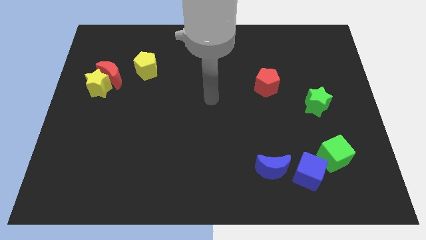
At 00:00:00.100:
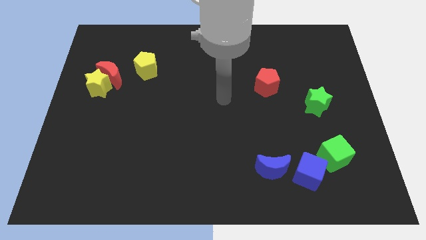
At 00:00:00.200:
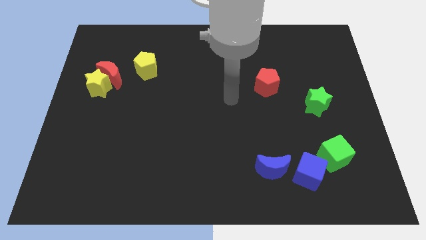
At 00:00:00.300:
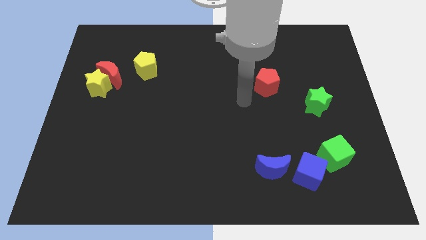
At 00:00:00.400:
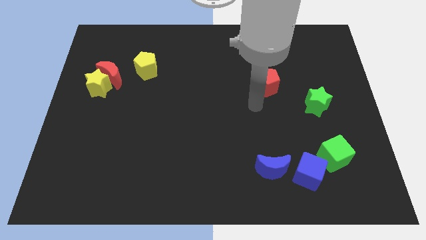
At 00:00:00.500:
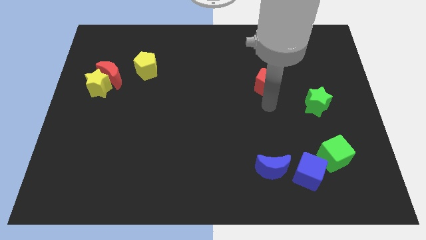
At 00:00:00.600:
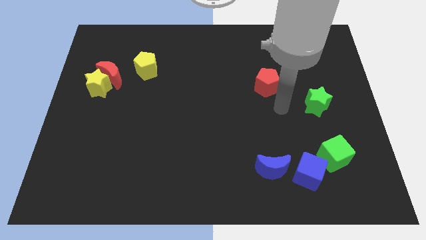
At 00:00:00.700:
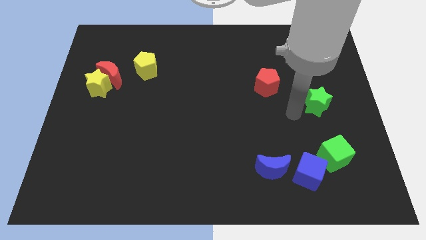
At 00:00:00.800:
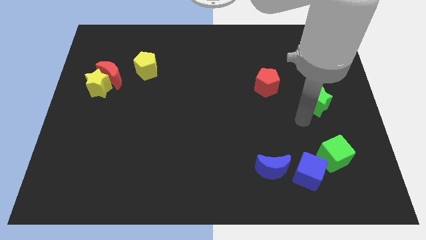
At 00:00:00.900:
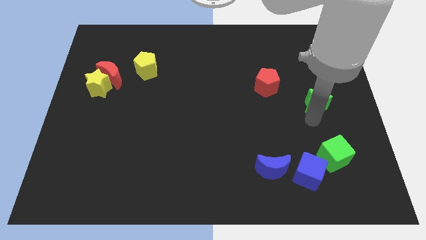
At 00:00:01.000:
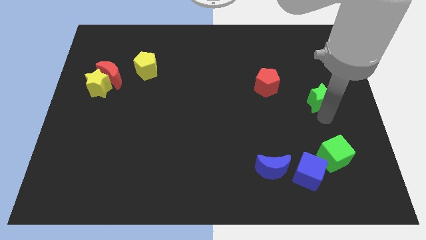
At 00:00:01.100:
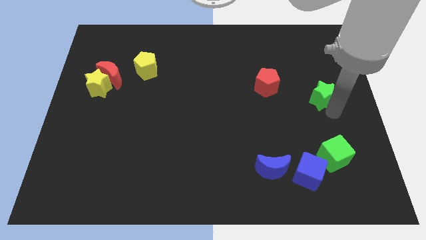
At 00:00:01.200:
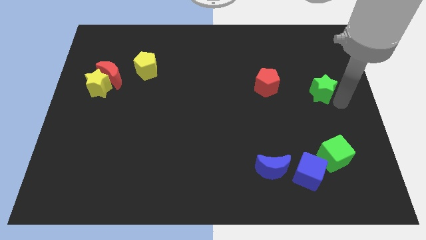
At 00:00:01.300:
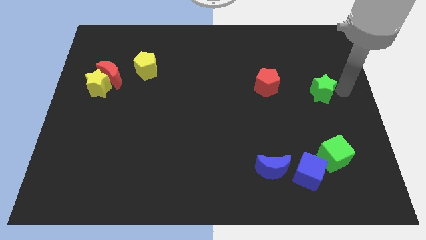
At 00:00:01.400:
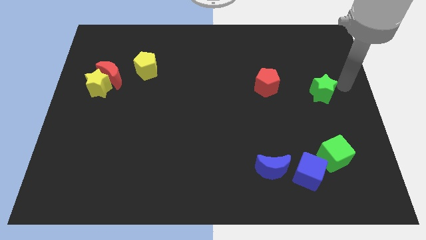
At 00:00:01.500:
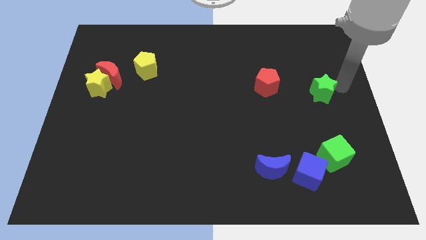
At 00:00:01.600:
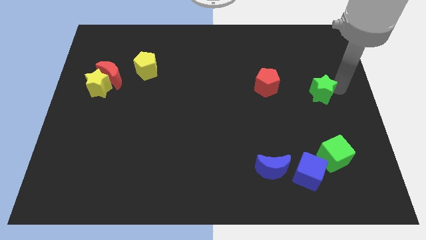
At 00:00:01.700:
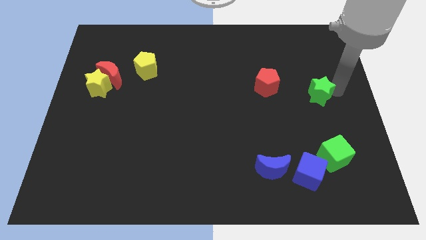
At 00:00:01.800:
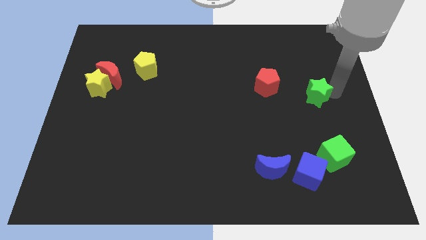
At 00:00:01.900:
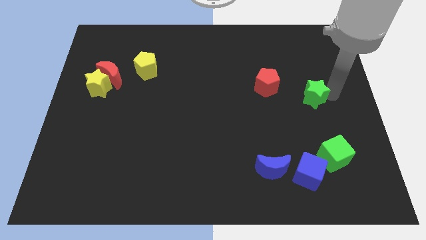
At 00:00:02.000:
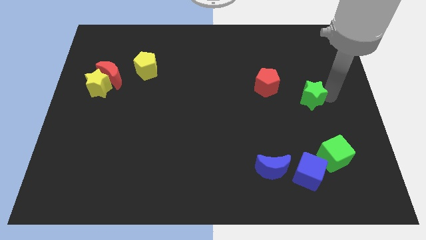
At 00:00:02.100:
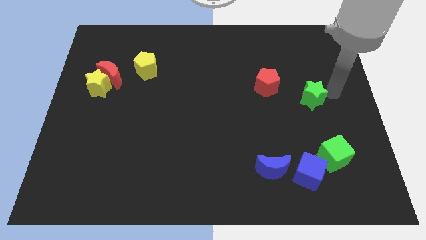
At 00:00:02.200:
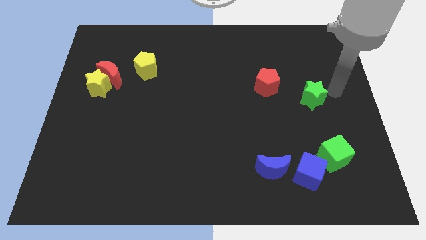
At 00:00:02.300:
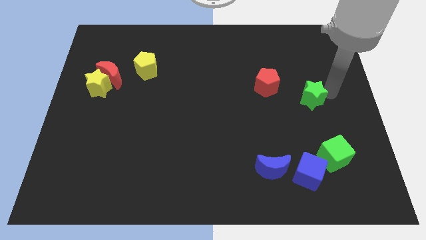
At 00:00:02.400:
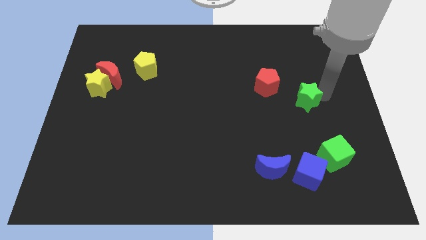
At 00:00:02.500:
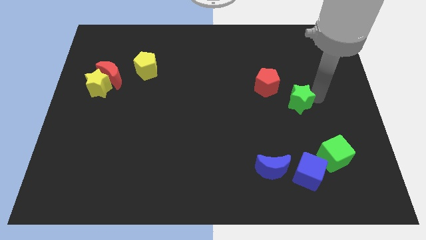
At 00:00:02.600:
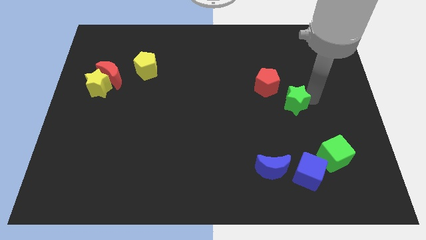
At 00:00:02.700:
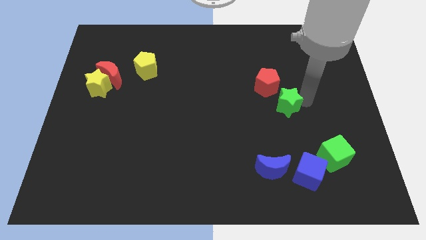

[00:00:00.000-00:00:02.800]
slightly slide the green star to the left

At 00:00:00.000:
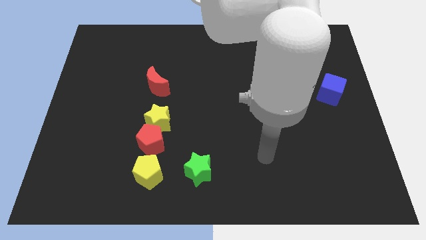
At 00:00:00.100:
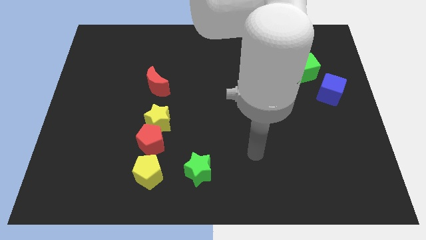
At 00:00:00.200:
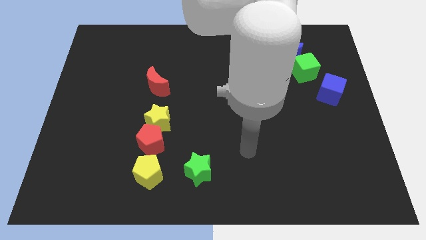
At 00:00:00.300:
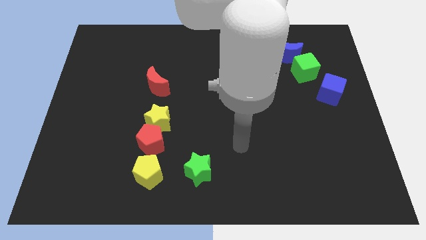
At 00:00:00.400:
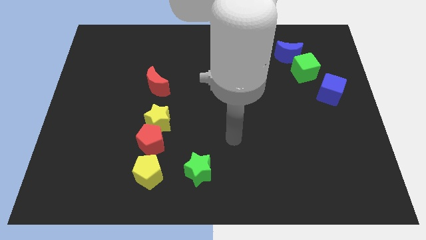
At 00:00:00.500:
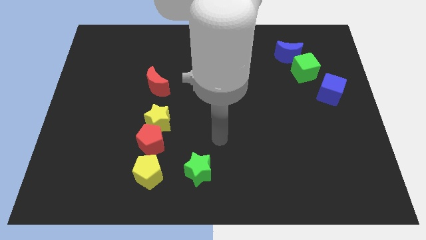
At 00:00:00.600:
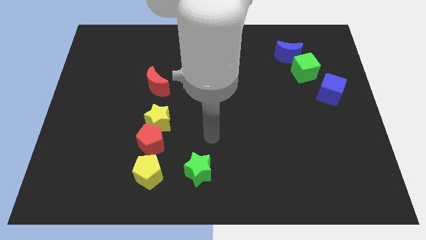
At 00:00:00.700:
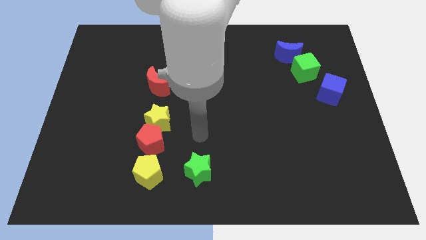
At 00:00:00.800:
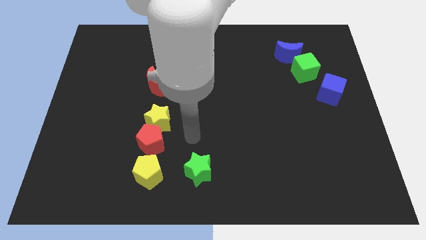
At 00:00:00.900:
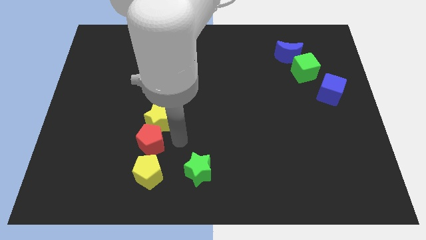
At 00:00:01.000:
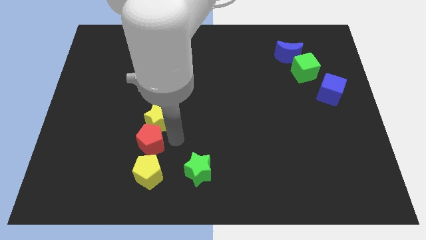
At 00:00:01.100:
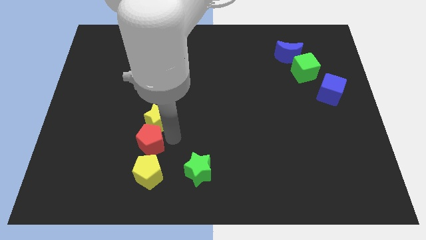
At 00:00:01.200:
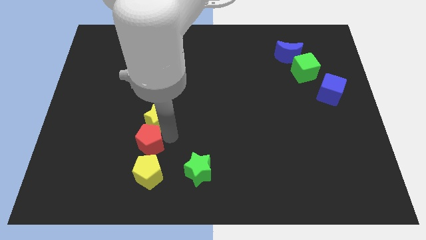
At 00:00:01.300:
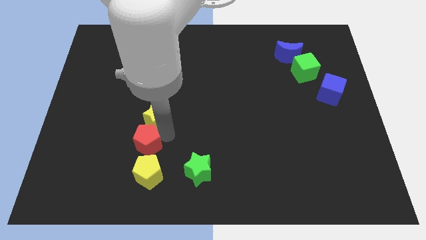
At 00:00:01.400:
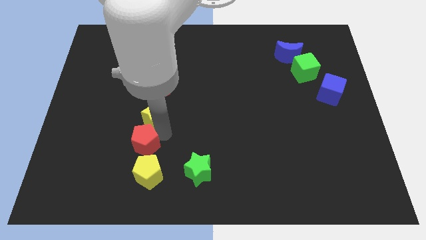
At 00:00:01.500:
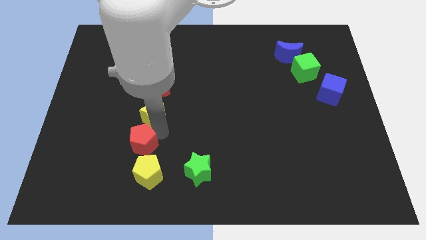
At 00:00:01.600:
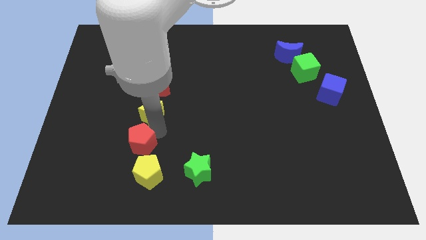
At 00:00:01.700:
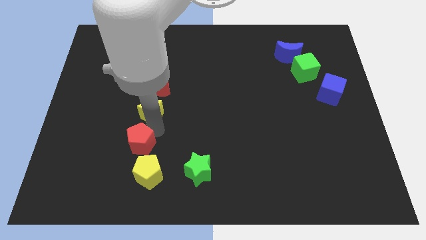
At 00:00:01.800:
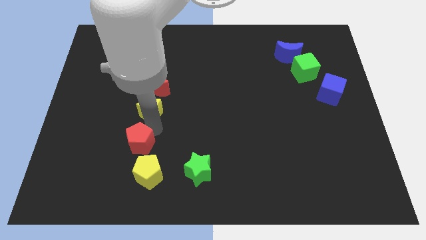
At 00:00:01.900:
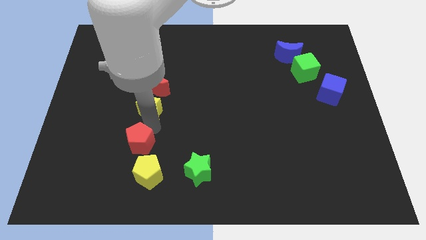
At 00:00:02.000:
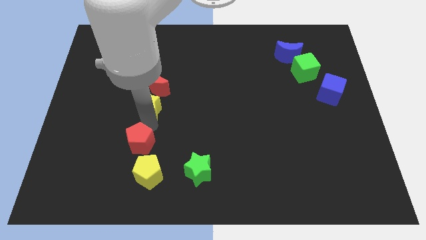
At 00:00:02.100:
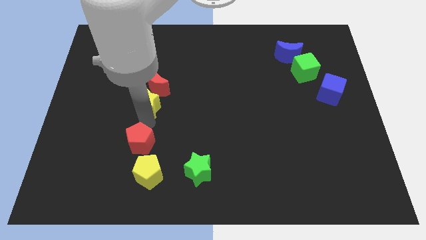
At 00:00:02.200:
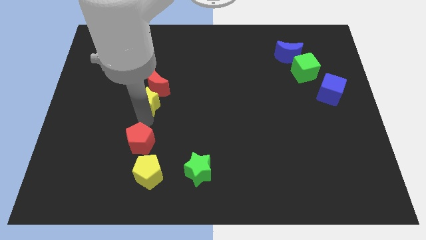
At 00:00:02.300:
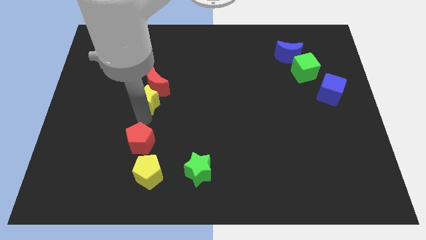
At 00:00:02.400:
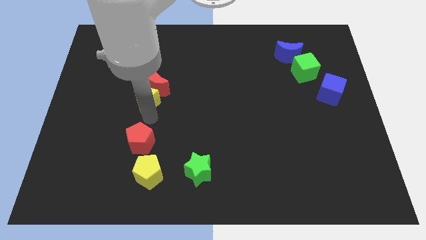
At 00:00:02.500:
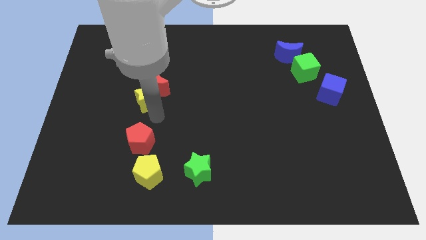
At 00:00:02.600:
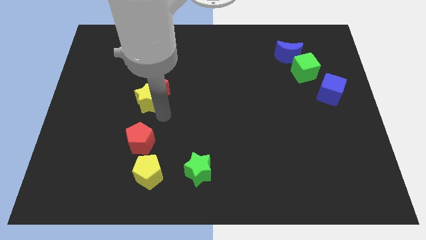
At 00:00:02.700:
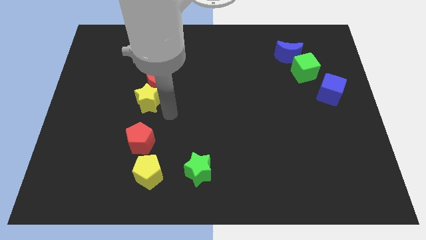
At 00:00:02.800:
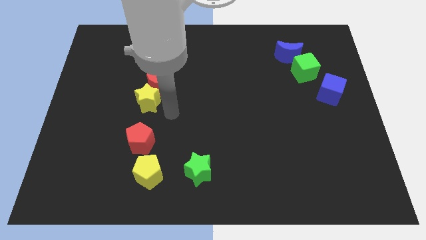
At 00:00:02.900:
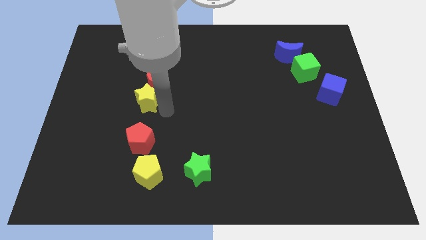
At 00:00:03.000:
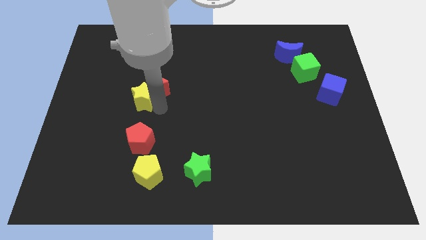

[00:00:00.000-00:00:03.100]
move the yellow star up and to the left diagonally somewhat

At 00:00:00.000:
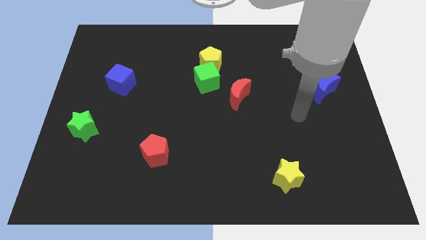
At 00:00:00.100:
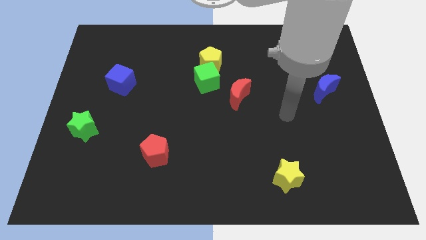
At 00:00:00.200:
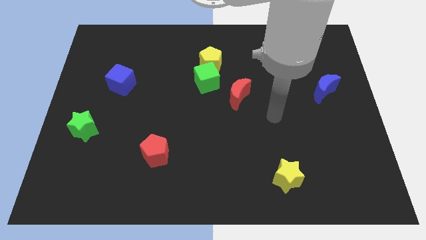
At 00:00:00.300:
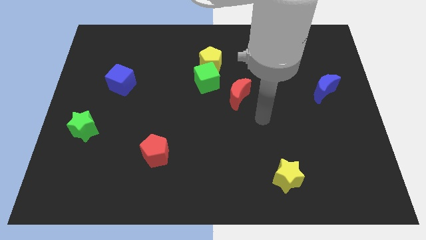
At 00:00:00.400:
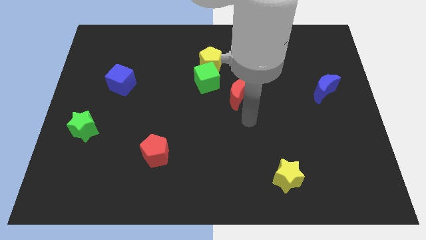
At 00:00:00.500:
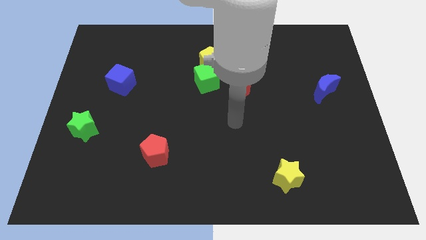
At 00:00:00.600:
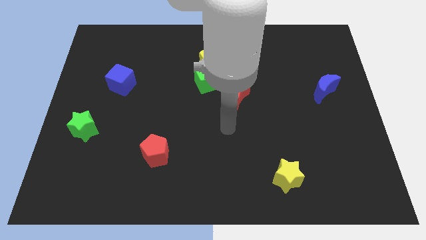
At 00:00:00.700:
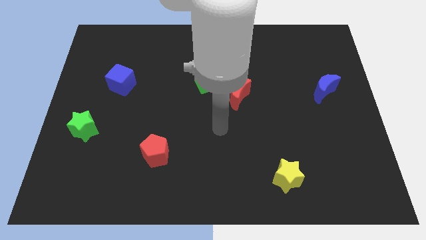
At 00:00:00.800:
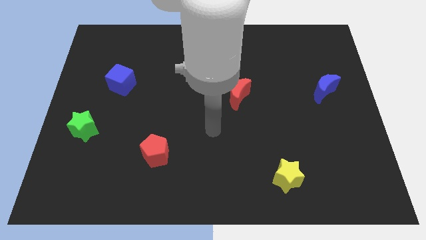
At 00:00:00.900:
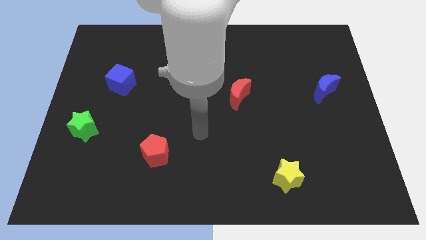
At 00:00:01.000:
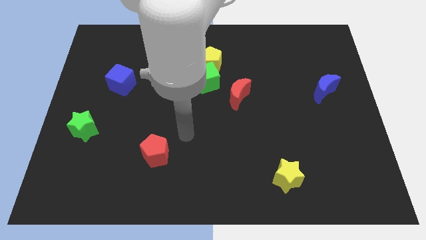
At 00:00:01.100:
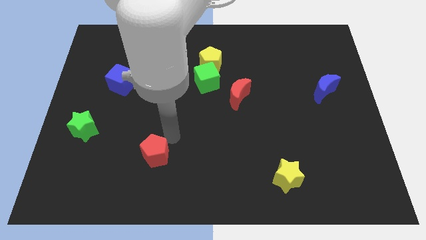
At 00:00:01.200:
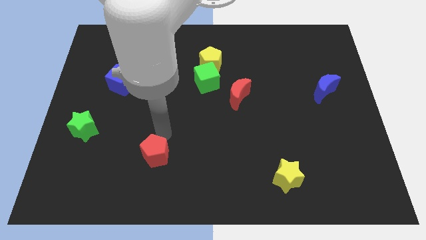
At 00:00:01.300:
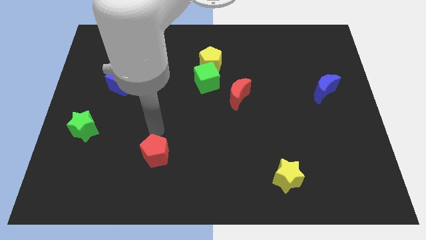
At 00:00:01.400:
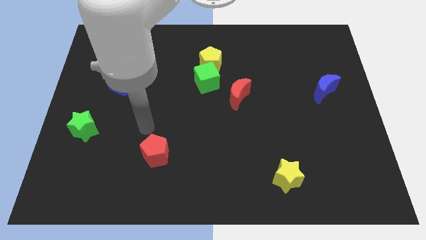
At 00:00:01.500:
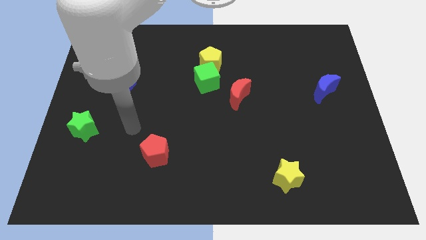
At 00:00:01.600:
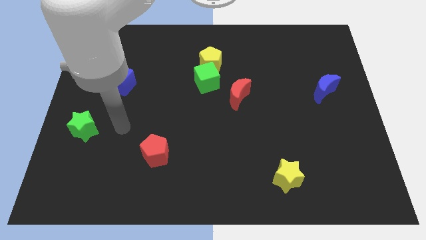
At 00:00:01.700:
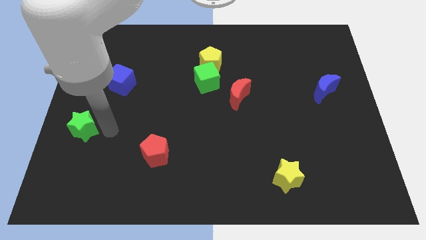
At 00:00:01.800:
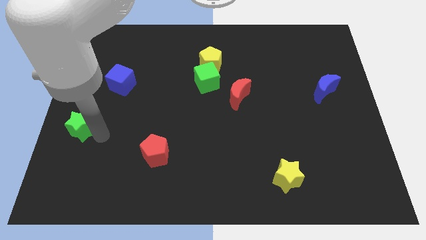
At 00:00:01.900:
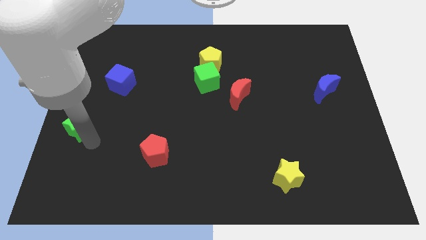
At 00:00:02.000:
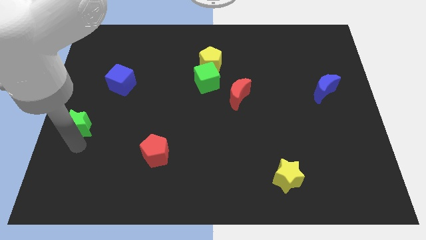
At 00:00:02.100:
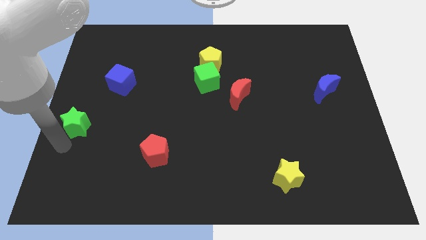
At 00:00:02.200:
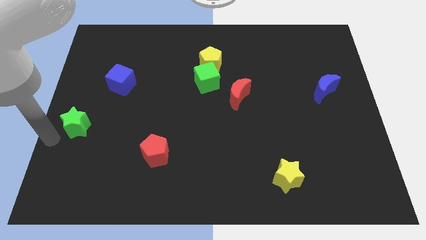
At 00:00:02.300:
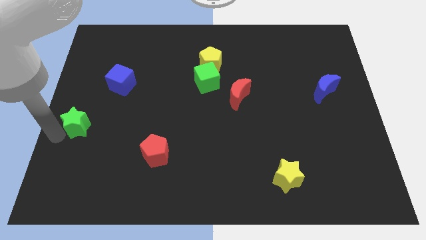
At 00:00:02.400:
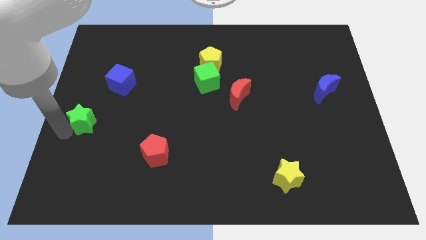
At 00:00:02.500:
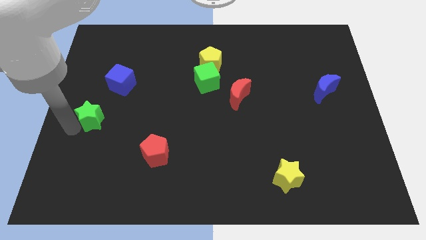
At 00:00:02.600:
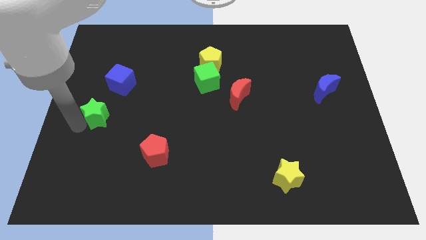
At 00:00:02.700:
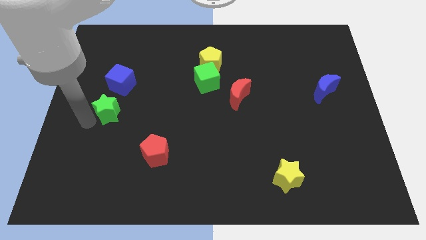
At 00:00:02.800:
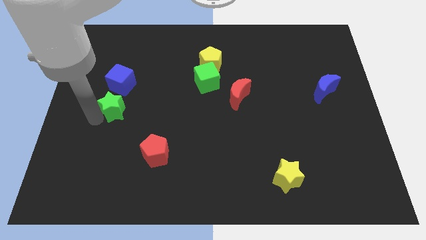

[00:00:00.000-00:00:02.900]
slide the green star a bit upwards and right
